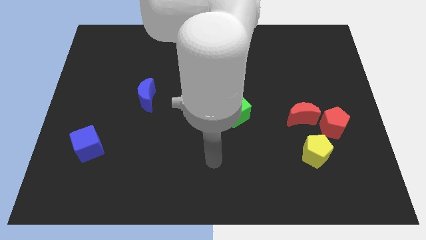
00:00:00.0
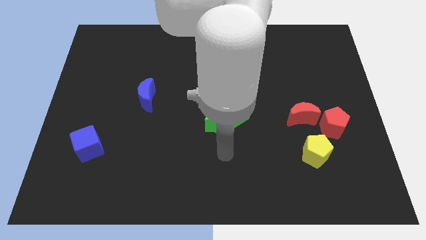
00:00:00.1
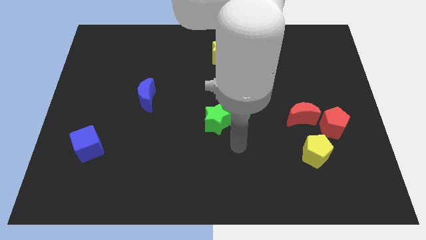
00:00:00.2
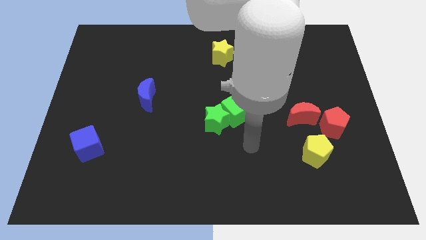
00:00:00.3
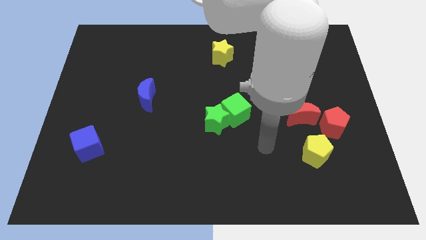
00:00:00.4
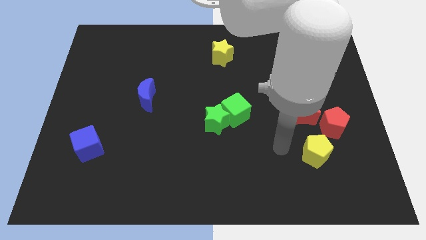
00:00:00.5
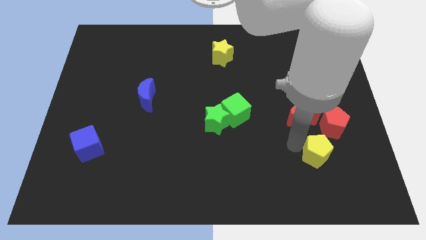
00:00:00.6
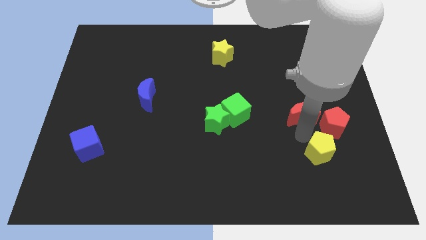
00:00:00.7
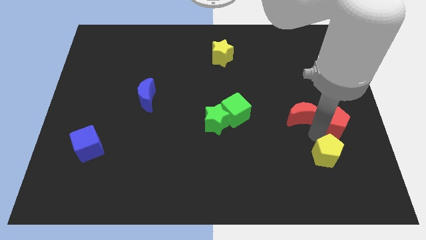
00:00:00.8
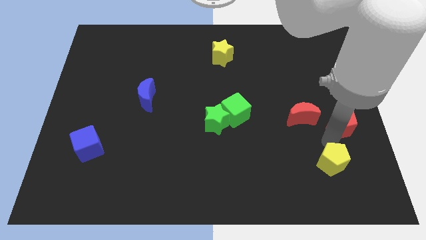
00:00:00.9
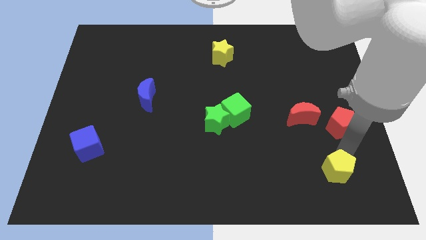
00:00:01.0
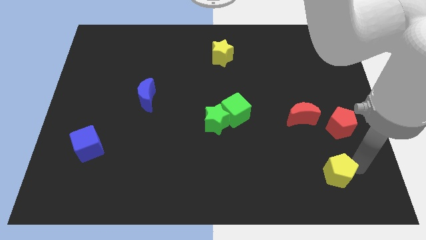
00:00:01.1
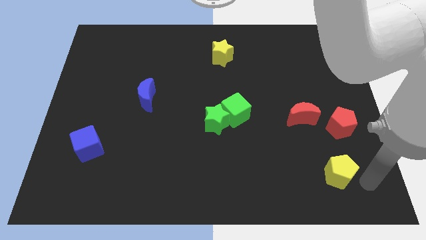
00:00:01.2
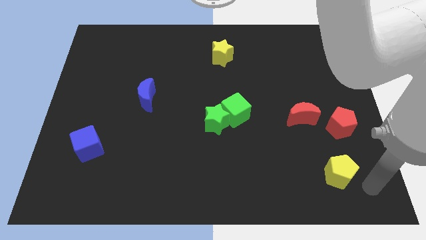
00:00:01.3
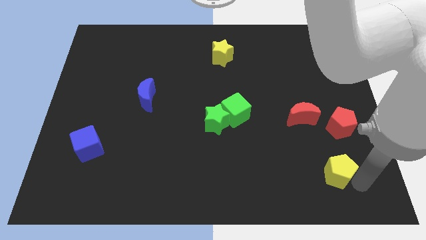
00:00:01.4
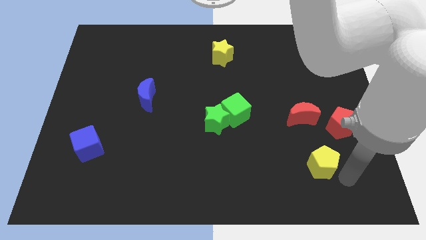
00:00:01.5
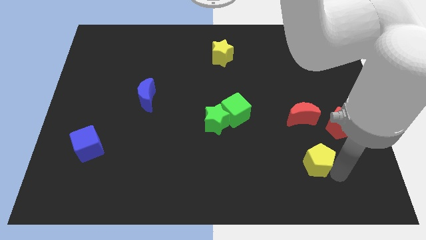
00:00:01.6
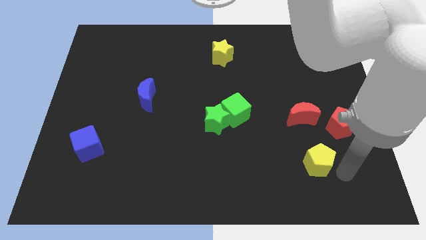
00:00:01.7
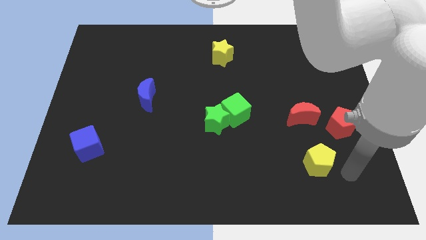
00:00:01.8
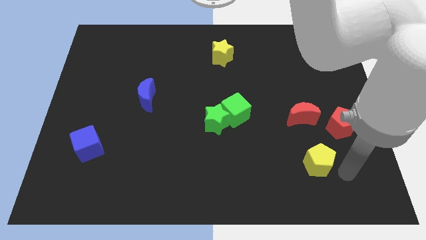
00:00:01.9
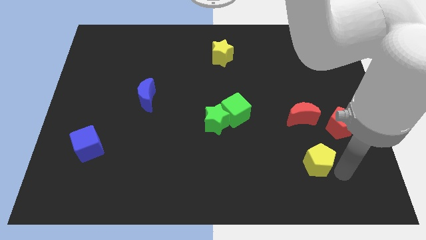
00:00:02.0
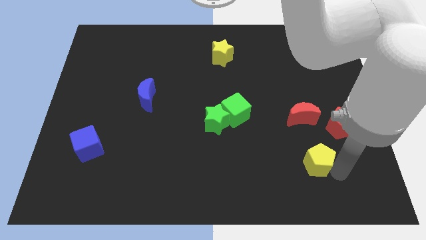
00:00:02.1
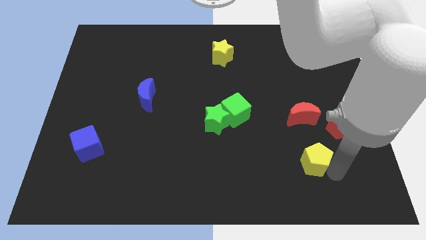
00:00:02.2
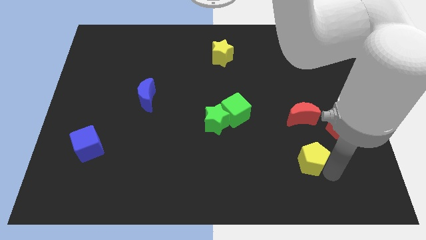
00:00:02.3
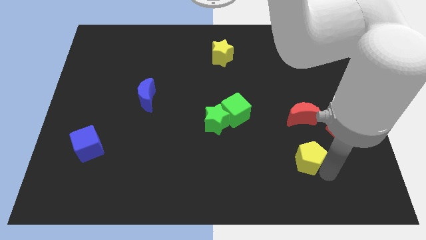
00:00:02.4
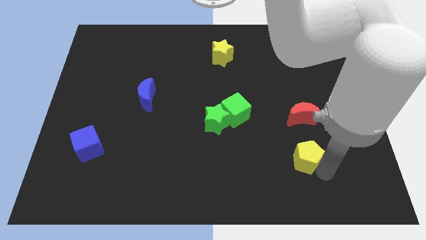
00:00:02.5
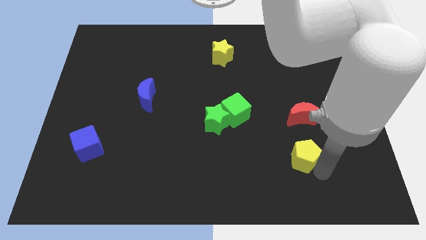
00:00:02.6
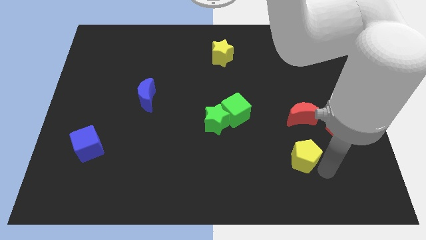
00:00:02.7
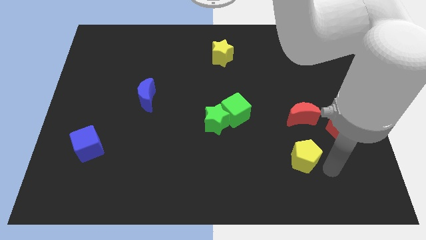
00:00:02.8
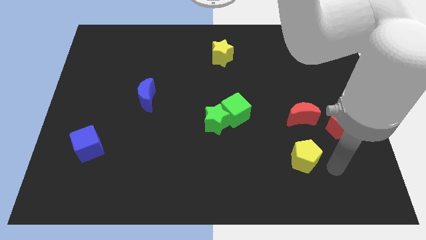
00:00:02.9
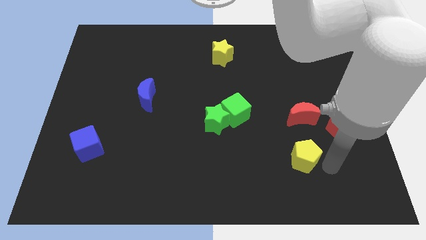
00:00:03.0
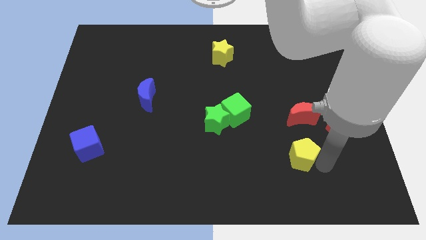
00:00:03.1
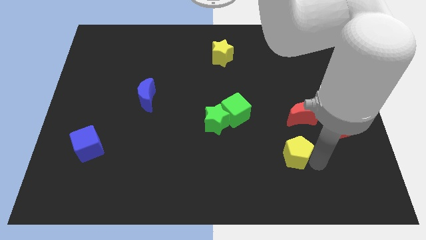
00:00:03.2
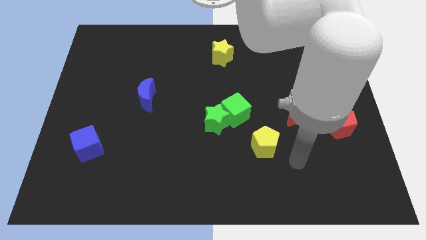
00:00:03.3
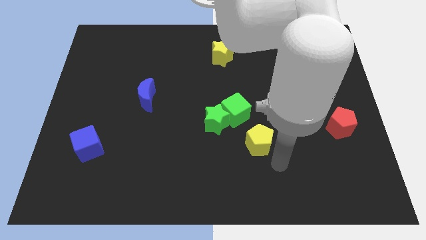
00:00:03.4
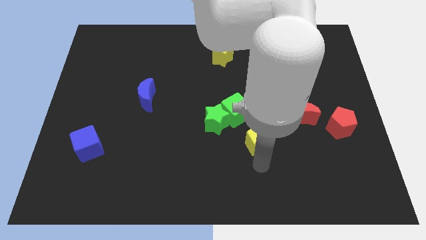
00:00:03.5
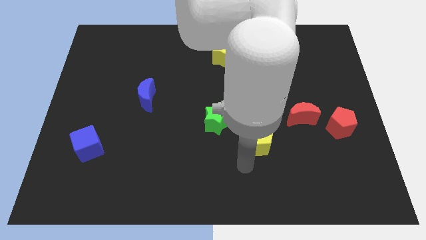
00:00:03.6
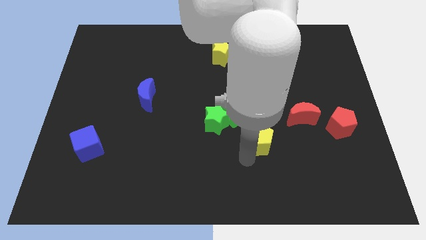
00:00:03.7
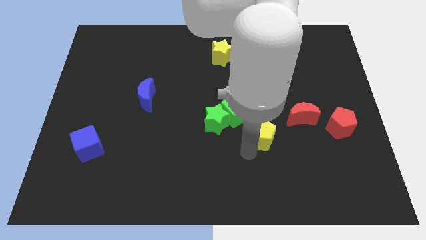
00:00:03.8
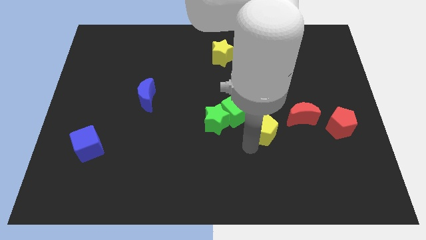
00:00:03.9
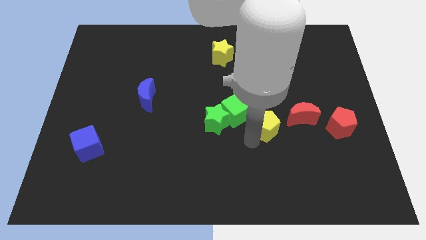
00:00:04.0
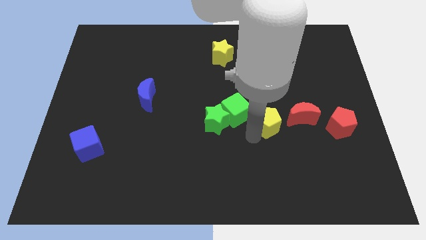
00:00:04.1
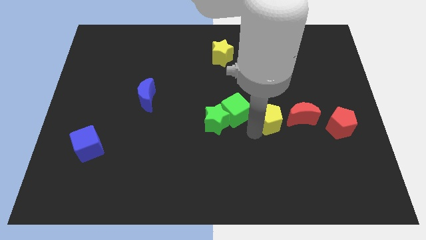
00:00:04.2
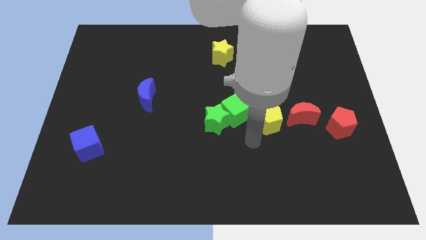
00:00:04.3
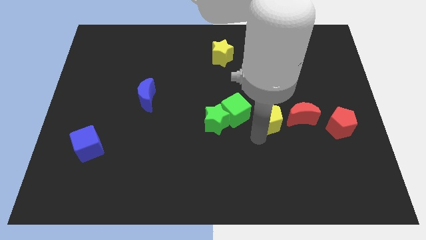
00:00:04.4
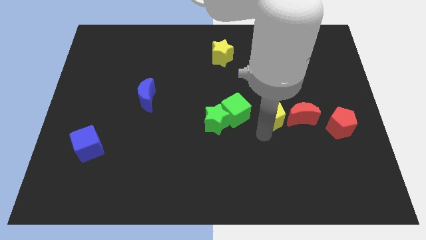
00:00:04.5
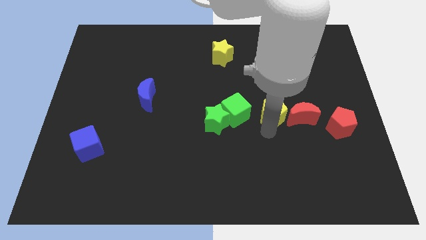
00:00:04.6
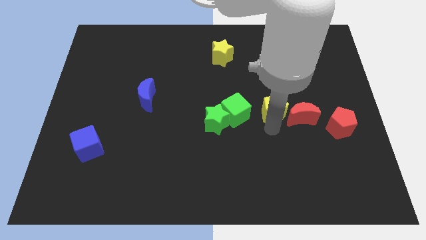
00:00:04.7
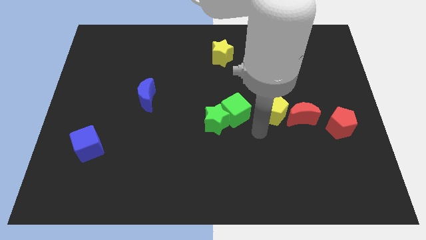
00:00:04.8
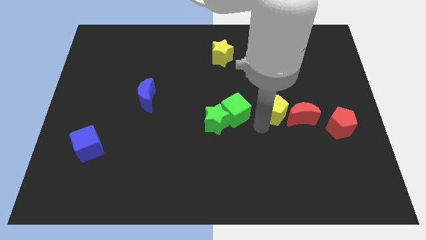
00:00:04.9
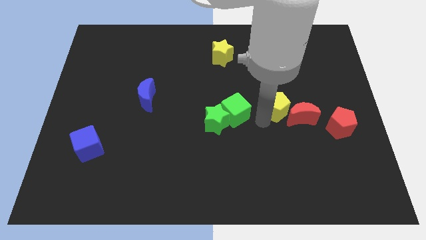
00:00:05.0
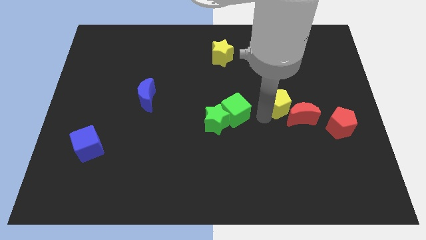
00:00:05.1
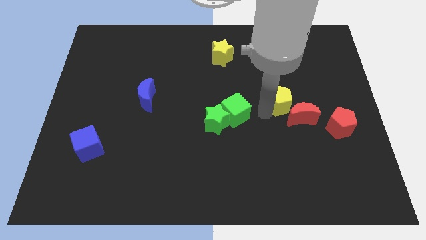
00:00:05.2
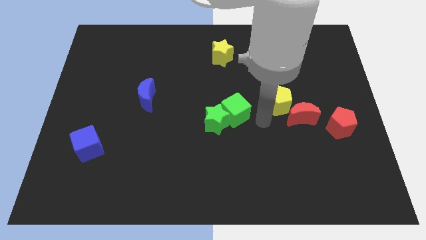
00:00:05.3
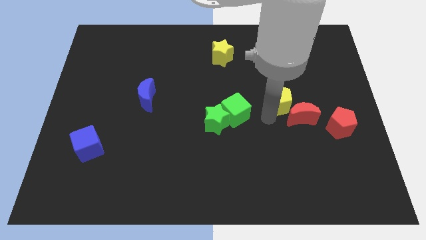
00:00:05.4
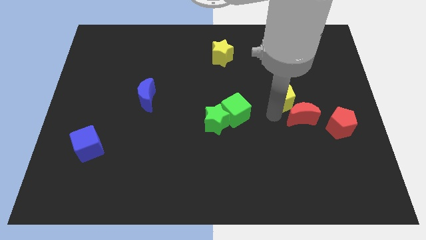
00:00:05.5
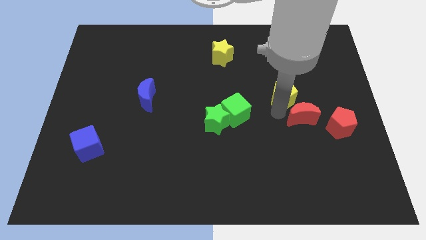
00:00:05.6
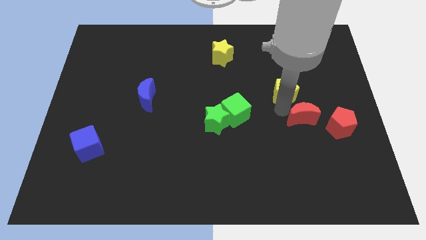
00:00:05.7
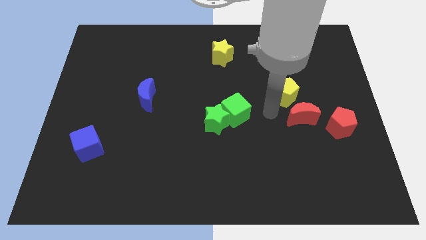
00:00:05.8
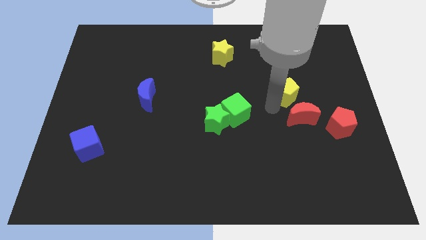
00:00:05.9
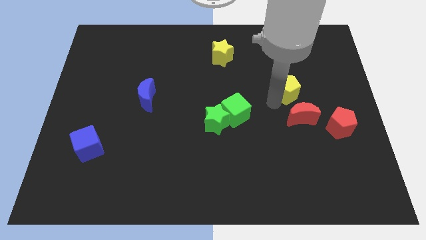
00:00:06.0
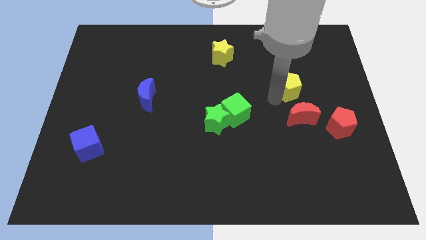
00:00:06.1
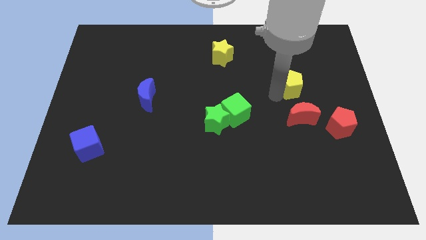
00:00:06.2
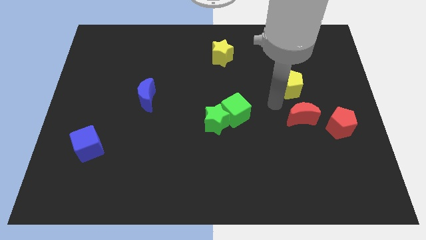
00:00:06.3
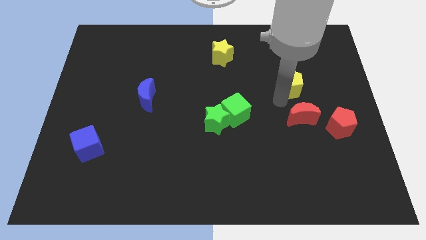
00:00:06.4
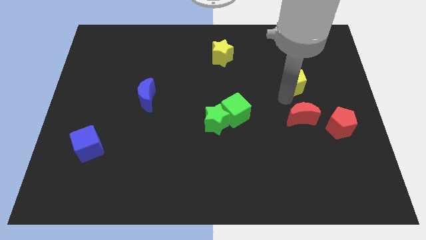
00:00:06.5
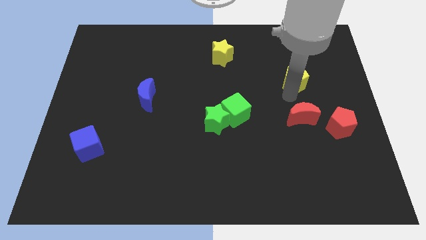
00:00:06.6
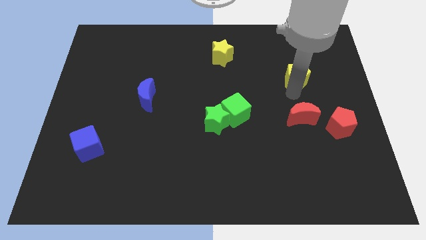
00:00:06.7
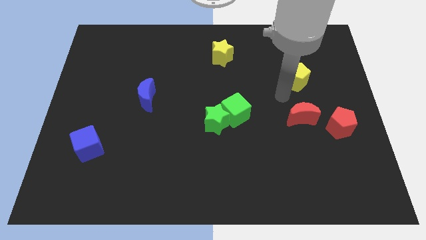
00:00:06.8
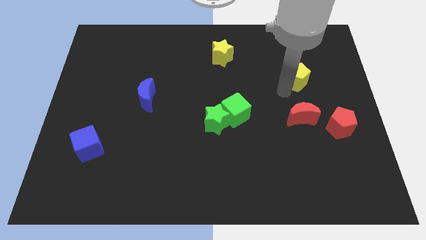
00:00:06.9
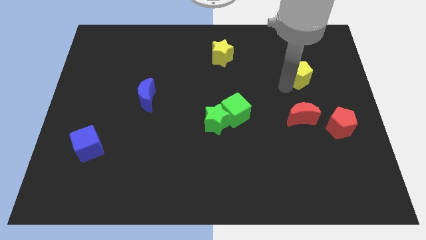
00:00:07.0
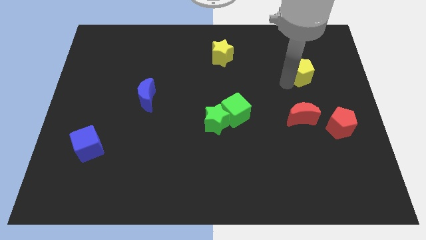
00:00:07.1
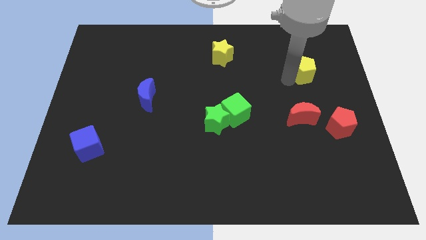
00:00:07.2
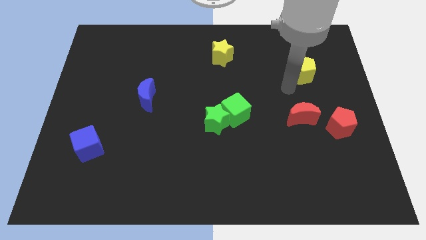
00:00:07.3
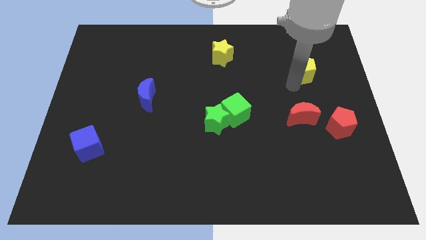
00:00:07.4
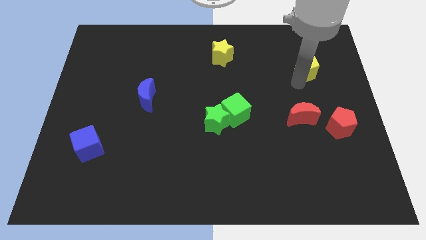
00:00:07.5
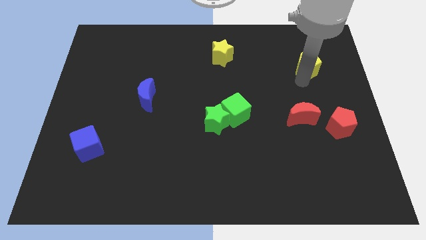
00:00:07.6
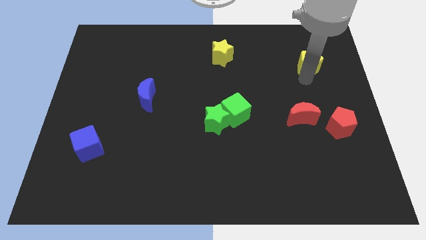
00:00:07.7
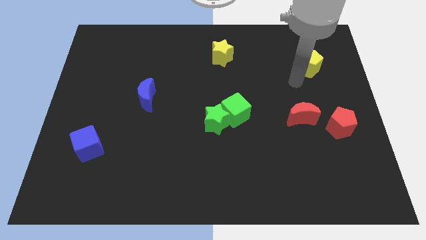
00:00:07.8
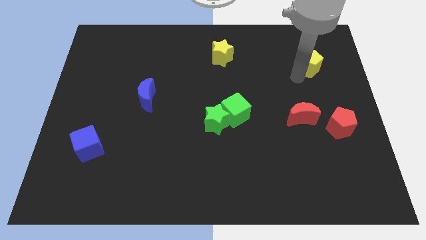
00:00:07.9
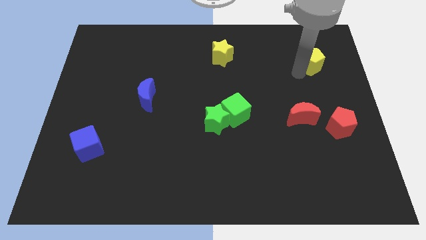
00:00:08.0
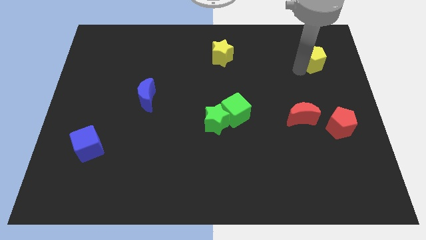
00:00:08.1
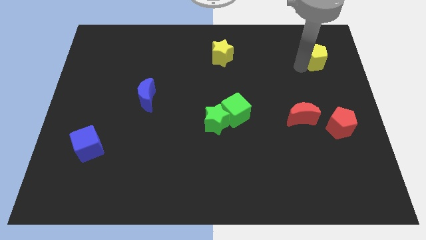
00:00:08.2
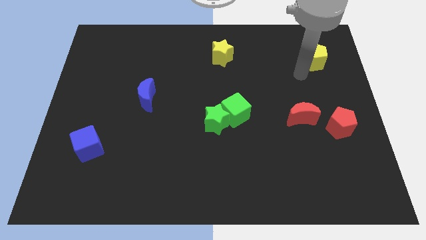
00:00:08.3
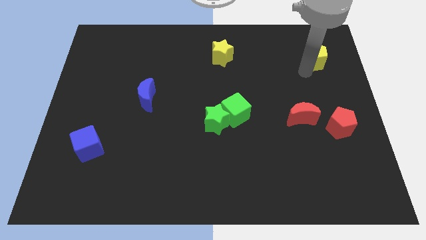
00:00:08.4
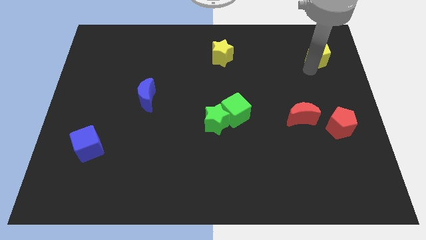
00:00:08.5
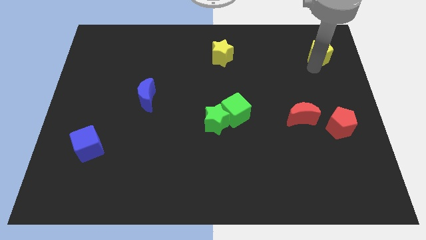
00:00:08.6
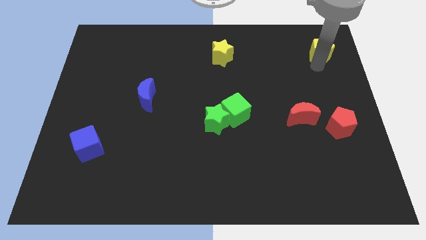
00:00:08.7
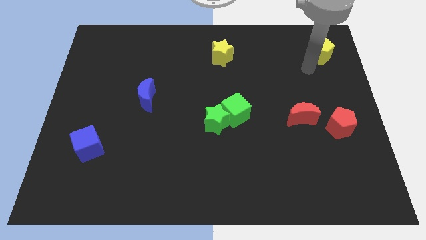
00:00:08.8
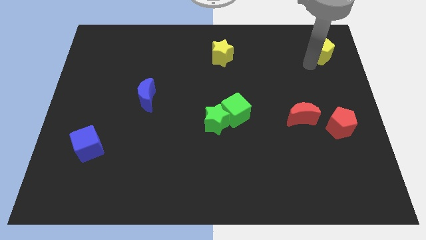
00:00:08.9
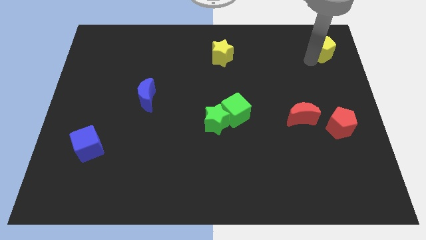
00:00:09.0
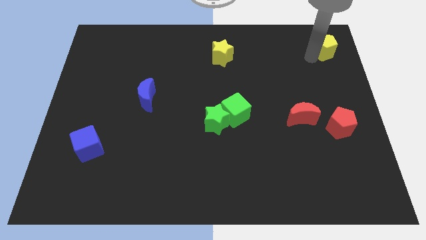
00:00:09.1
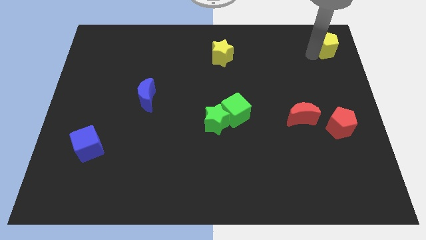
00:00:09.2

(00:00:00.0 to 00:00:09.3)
slide the yellow pentagon to the top right of the board
